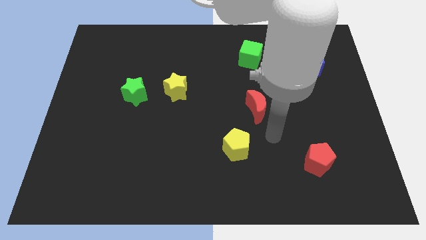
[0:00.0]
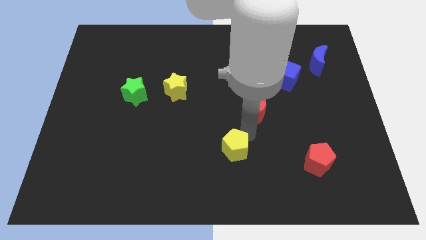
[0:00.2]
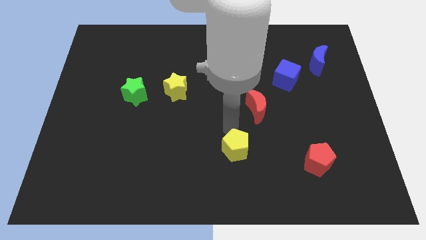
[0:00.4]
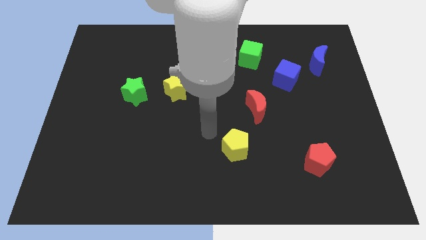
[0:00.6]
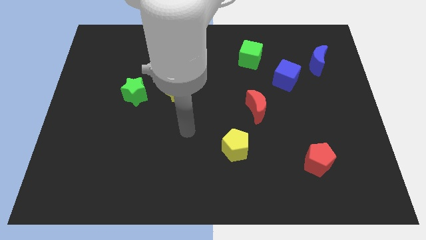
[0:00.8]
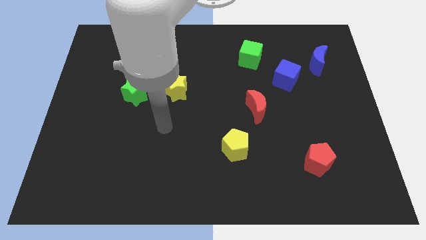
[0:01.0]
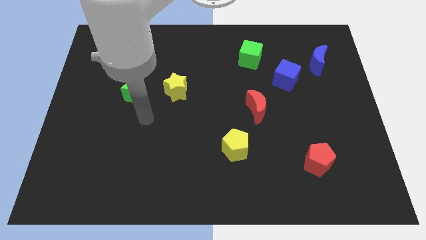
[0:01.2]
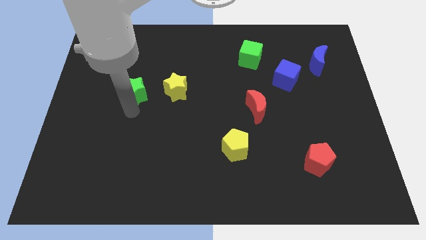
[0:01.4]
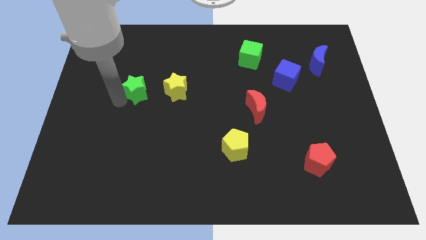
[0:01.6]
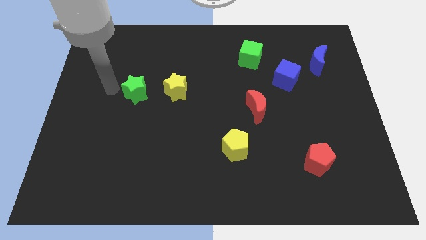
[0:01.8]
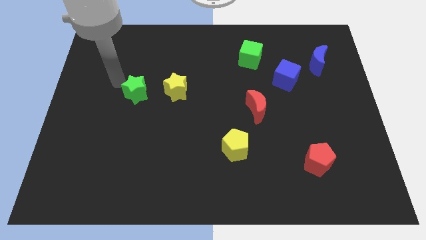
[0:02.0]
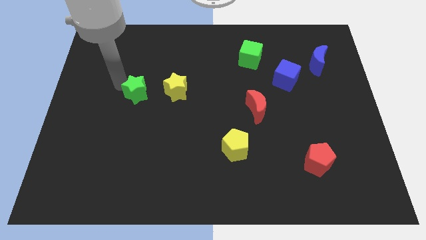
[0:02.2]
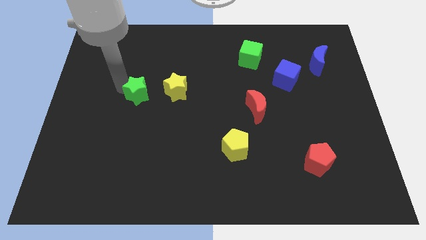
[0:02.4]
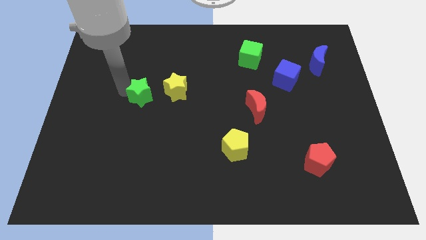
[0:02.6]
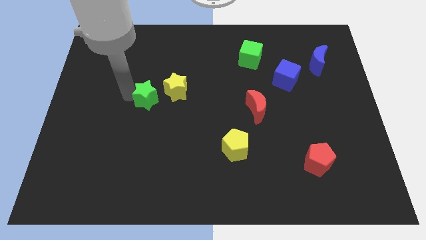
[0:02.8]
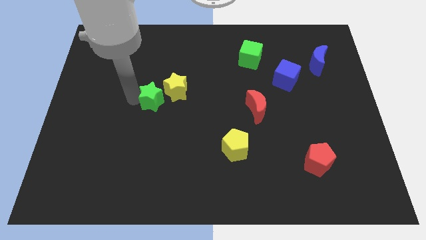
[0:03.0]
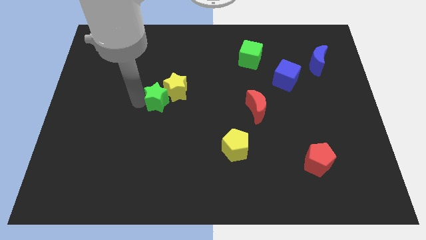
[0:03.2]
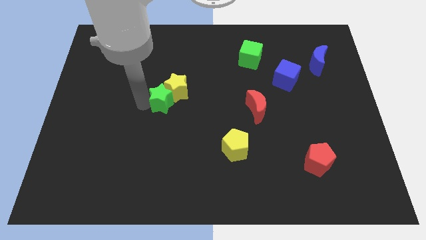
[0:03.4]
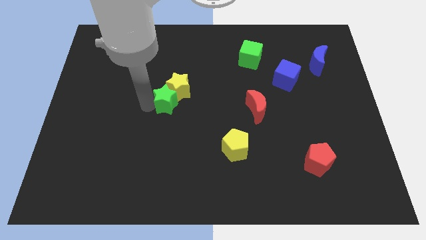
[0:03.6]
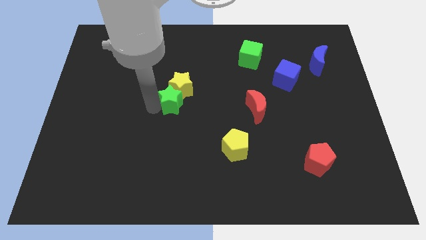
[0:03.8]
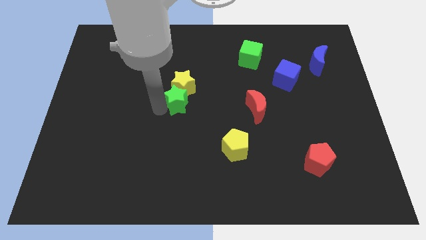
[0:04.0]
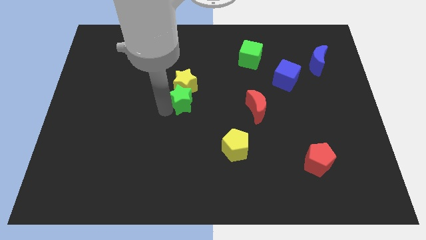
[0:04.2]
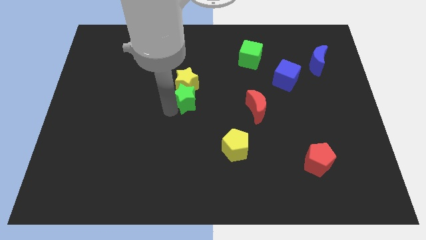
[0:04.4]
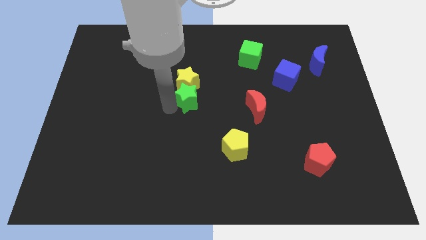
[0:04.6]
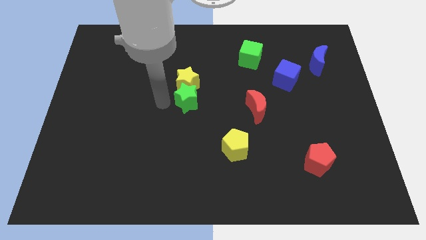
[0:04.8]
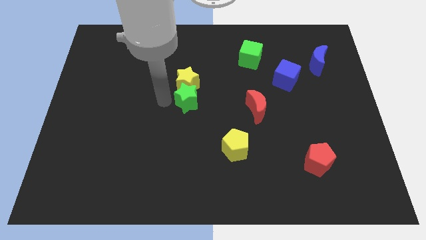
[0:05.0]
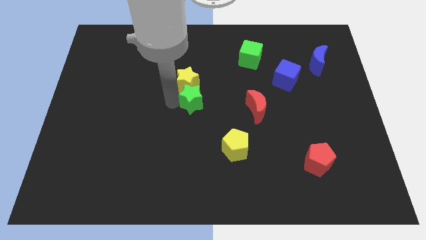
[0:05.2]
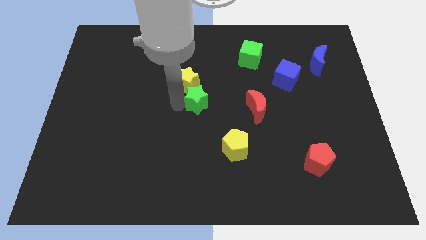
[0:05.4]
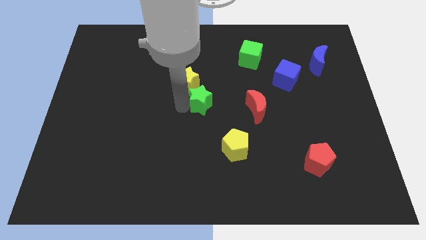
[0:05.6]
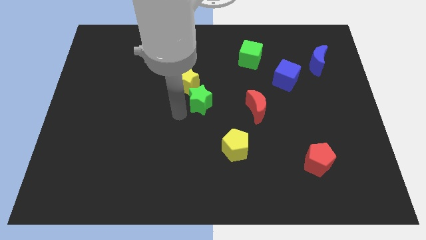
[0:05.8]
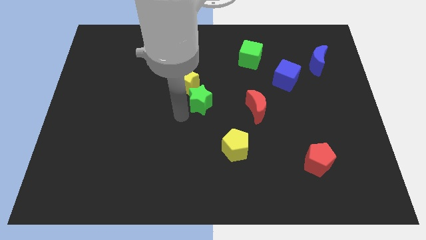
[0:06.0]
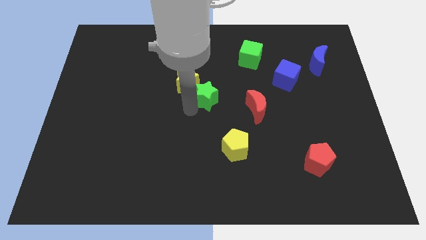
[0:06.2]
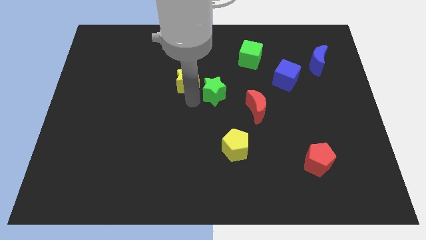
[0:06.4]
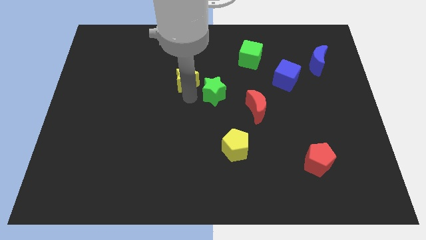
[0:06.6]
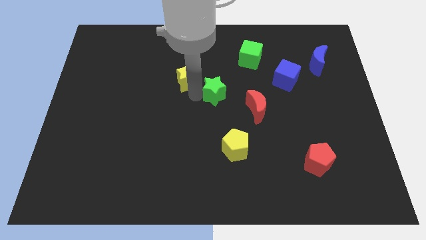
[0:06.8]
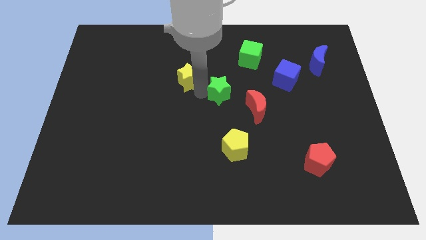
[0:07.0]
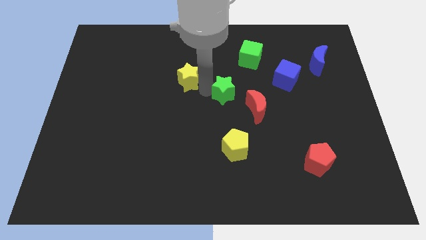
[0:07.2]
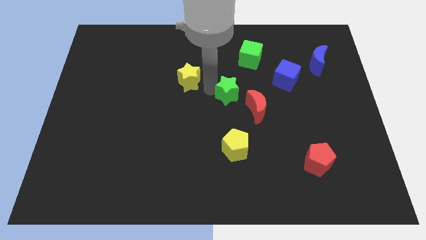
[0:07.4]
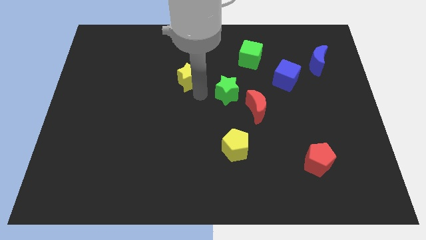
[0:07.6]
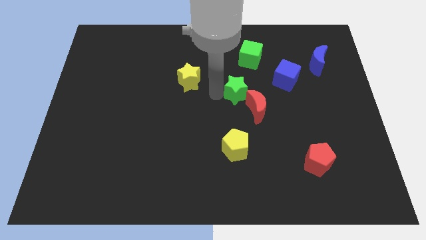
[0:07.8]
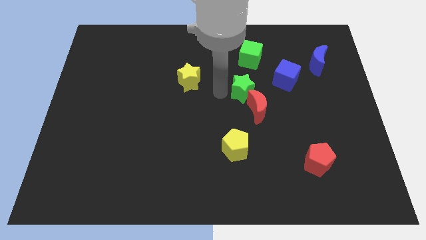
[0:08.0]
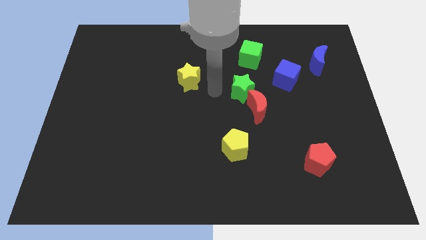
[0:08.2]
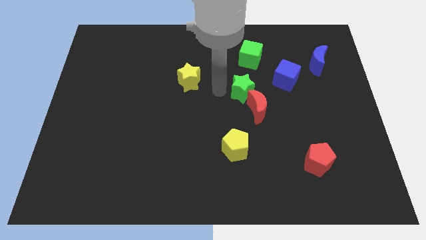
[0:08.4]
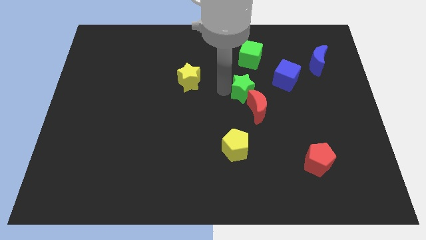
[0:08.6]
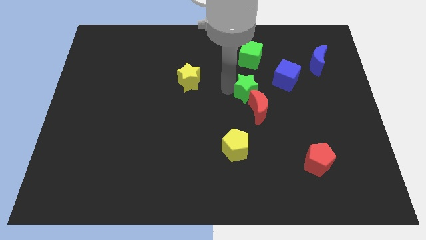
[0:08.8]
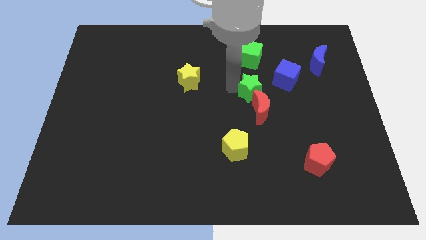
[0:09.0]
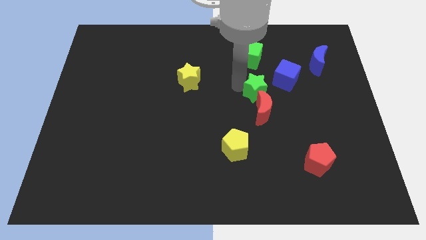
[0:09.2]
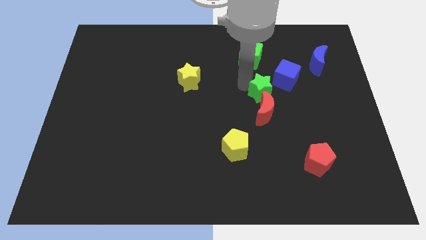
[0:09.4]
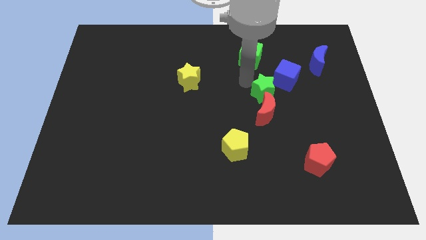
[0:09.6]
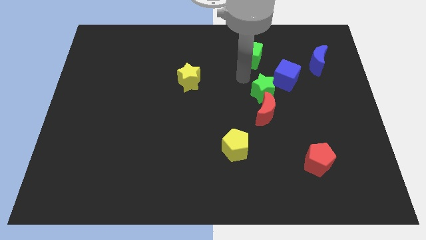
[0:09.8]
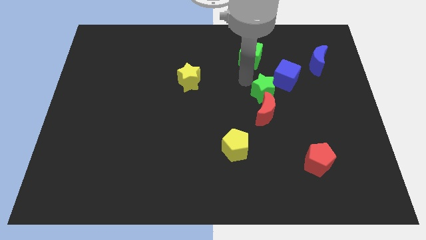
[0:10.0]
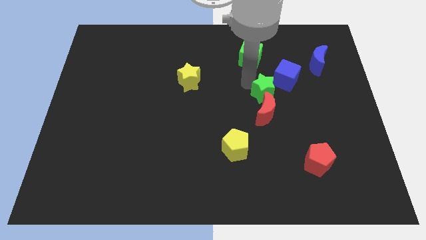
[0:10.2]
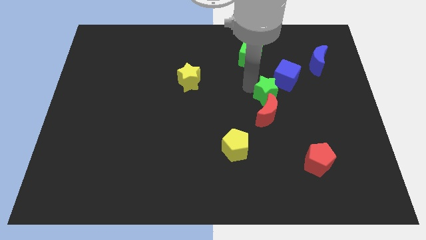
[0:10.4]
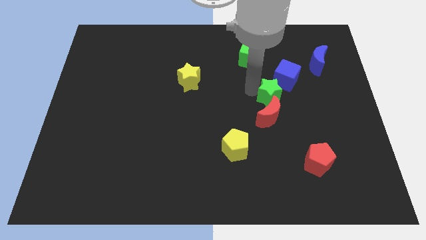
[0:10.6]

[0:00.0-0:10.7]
put the green star to the bottom of the blue cube

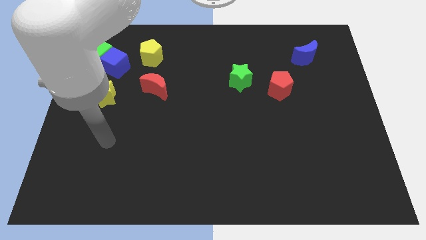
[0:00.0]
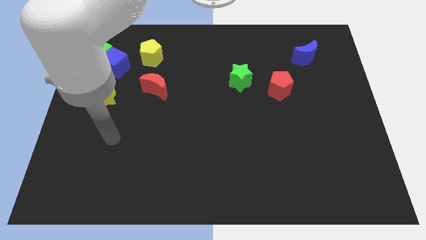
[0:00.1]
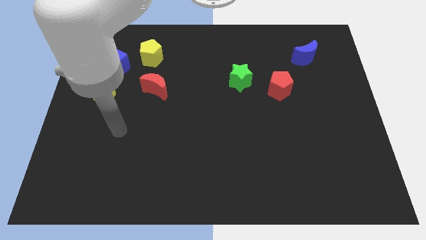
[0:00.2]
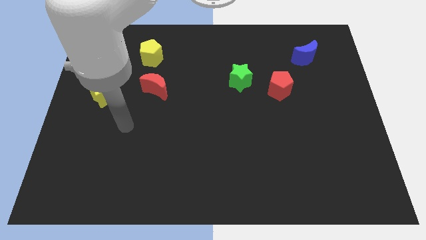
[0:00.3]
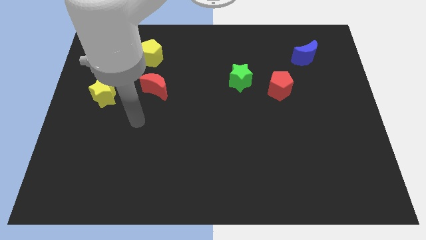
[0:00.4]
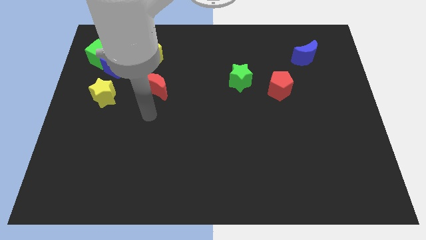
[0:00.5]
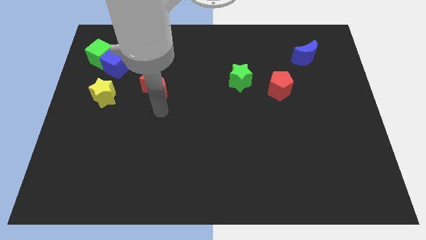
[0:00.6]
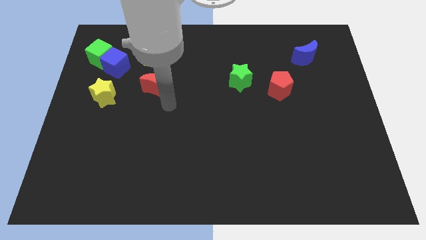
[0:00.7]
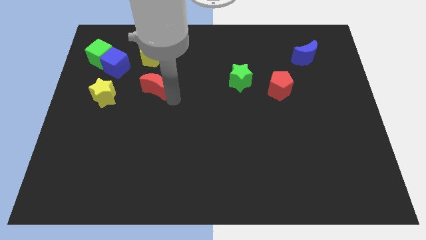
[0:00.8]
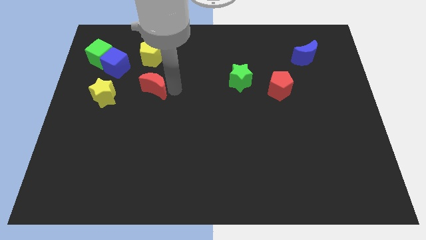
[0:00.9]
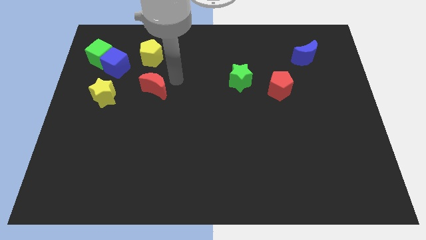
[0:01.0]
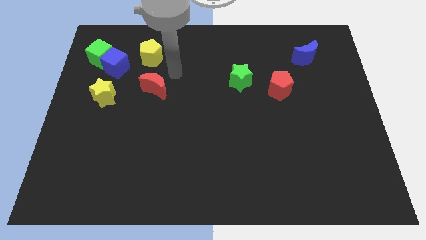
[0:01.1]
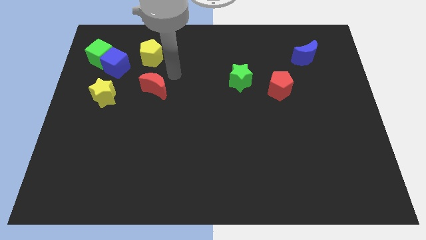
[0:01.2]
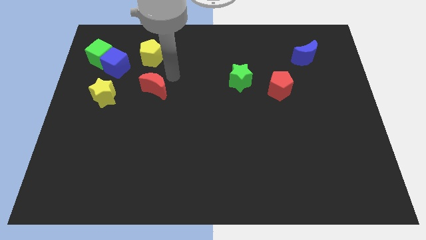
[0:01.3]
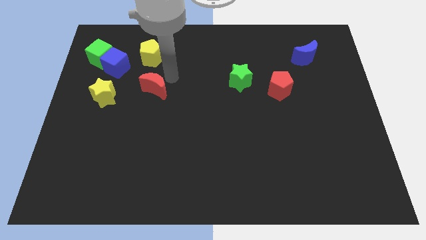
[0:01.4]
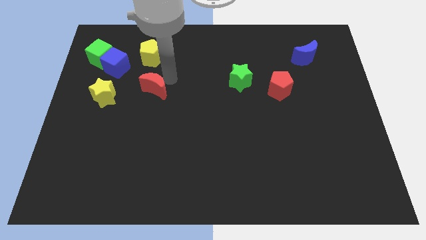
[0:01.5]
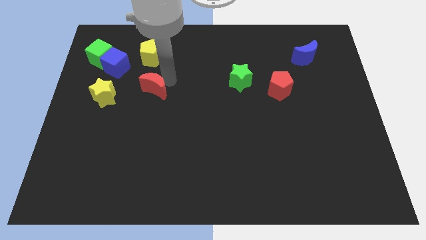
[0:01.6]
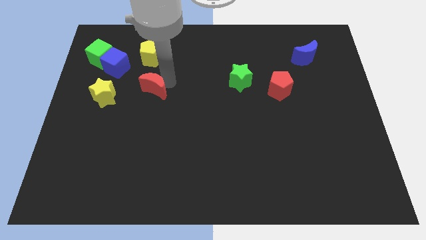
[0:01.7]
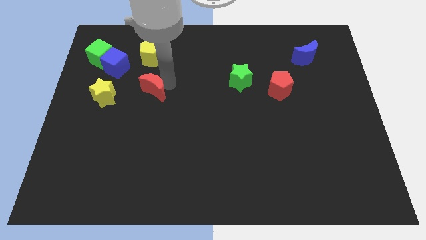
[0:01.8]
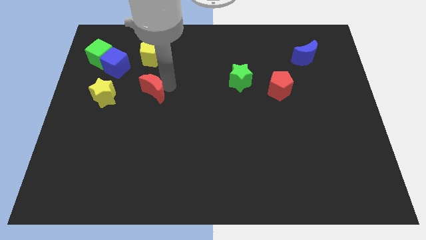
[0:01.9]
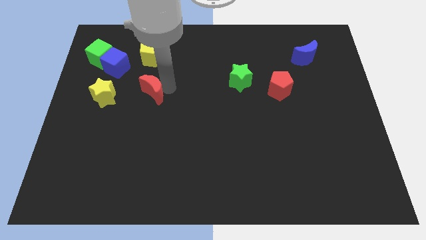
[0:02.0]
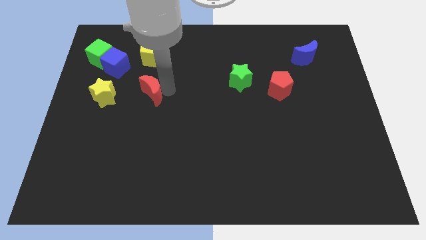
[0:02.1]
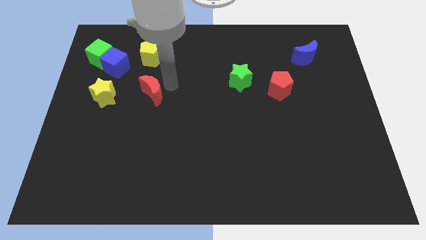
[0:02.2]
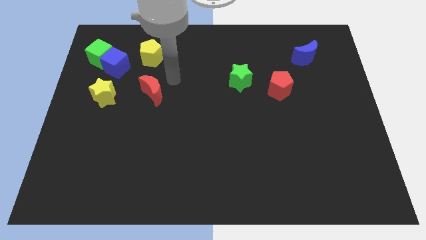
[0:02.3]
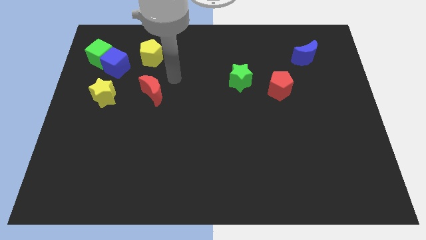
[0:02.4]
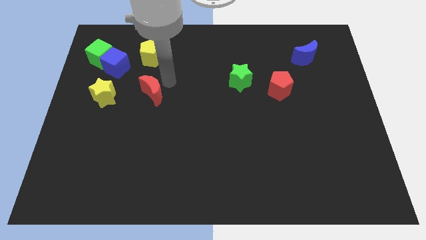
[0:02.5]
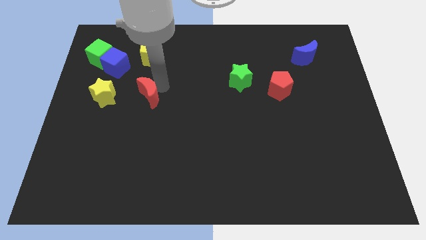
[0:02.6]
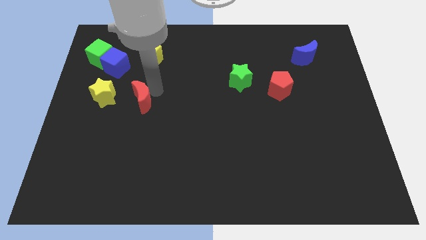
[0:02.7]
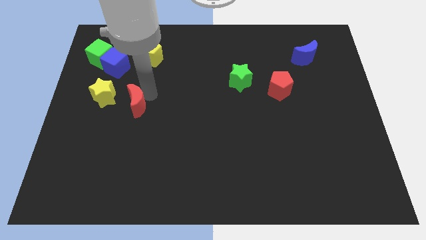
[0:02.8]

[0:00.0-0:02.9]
move the red moon to the bottom right of the yellow star

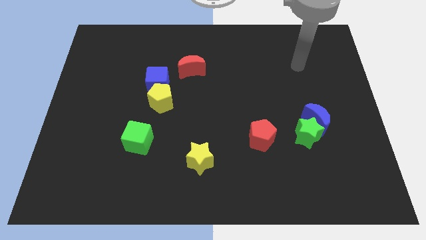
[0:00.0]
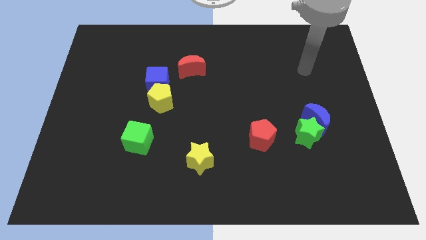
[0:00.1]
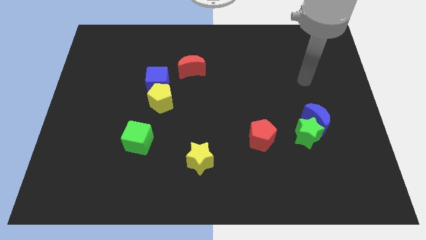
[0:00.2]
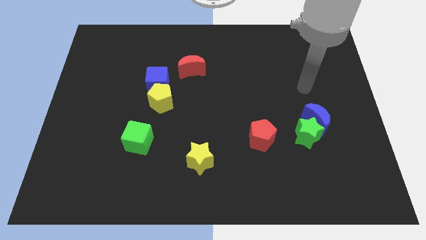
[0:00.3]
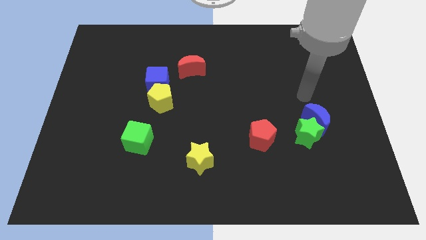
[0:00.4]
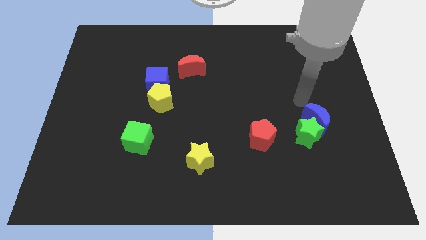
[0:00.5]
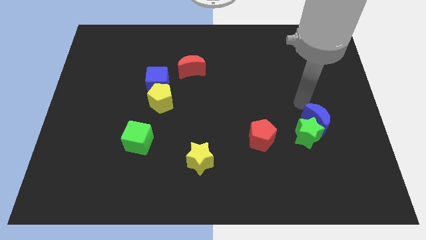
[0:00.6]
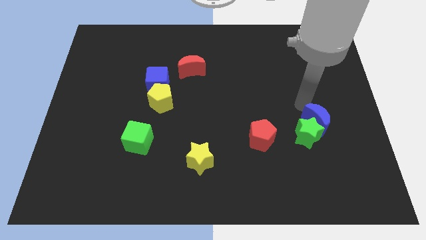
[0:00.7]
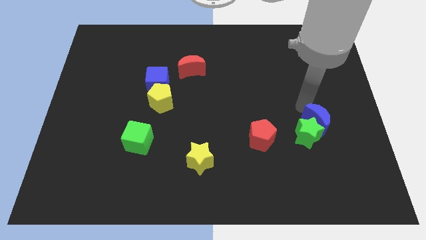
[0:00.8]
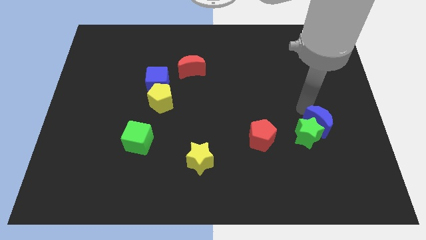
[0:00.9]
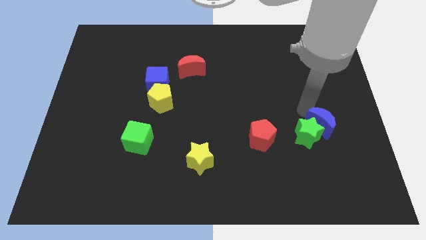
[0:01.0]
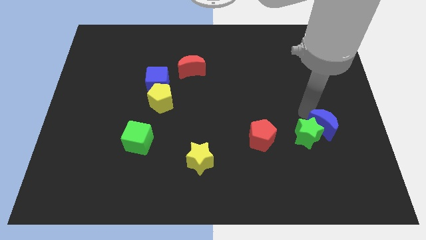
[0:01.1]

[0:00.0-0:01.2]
push the blue moon to the bottom right side of the green star
